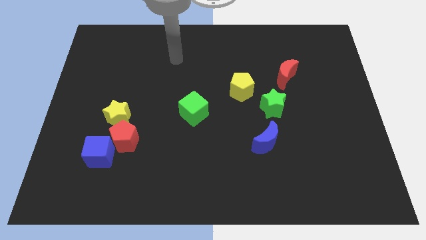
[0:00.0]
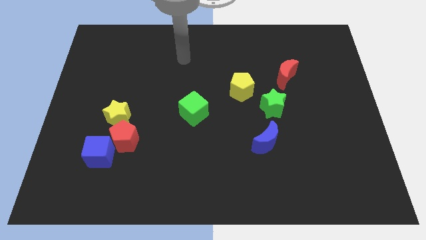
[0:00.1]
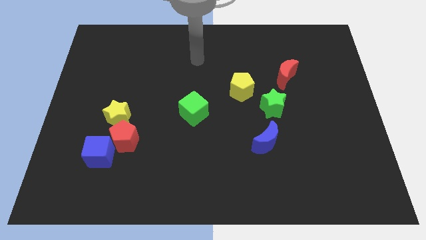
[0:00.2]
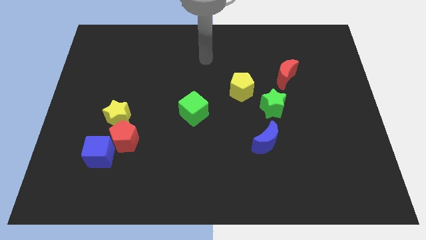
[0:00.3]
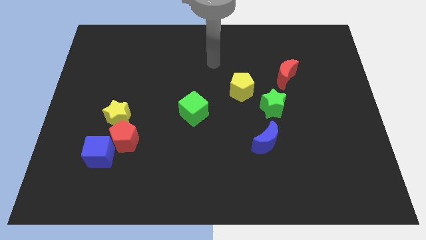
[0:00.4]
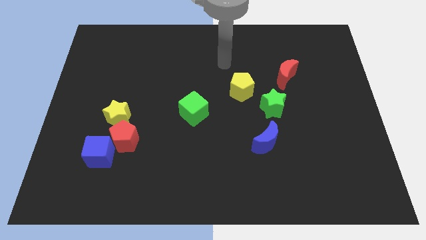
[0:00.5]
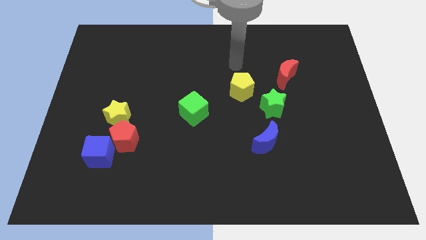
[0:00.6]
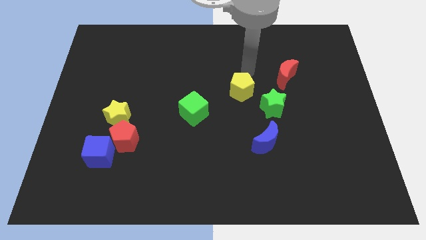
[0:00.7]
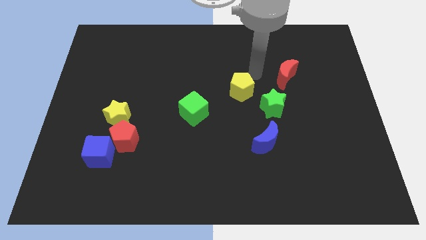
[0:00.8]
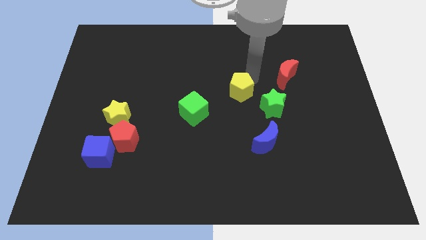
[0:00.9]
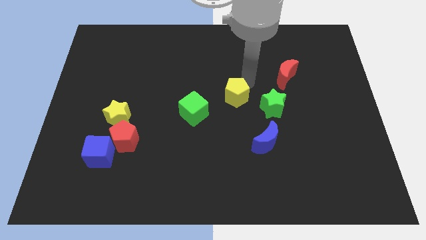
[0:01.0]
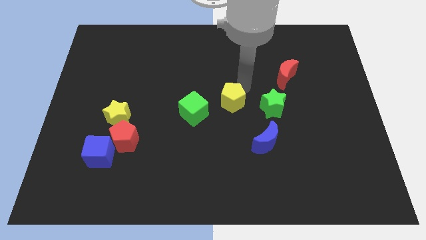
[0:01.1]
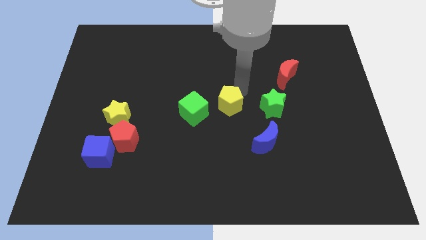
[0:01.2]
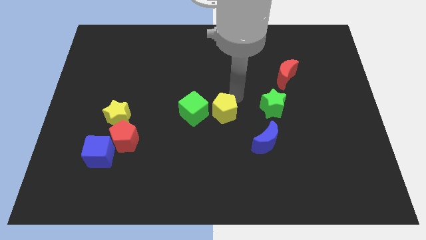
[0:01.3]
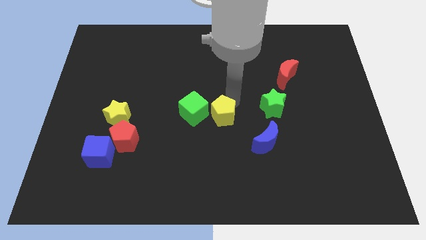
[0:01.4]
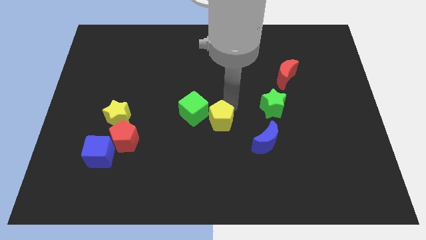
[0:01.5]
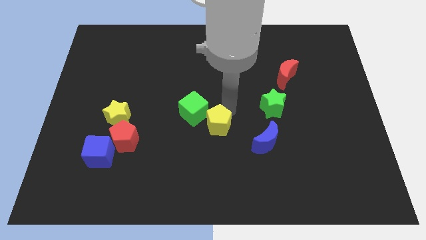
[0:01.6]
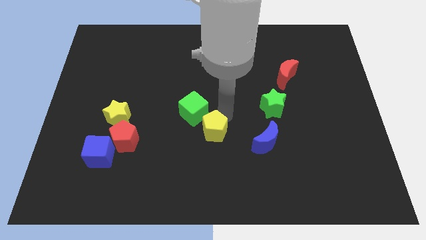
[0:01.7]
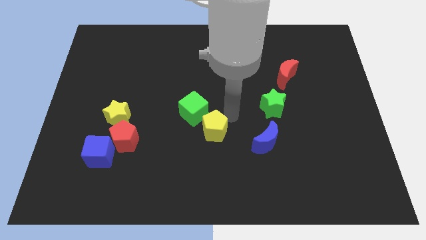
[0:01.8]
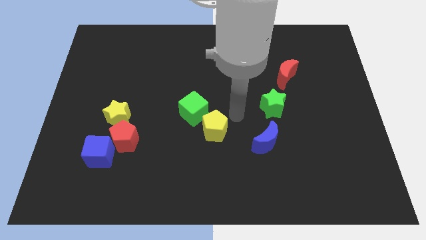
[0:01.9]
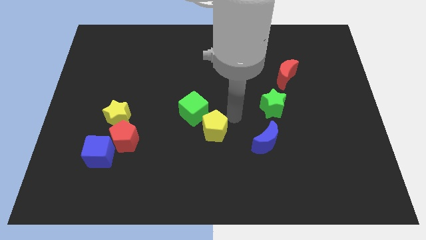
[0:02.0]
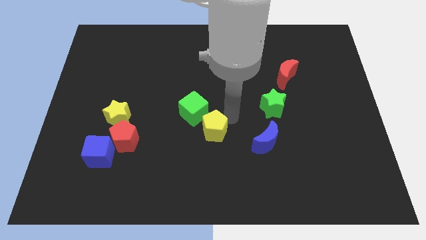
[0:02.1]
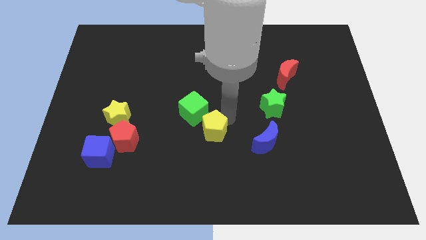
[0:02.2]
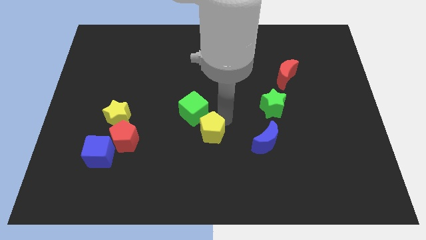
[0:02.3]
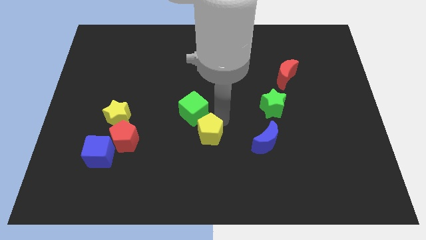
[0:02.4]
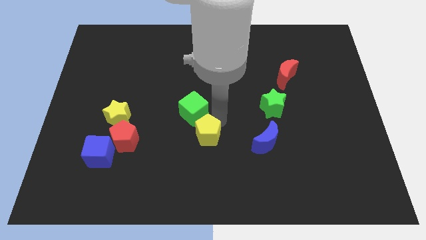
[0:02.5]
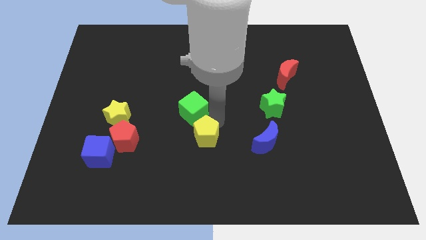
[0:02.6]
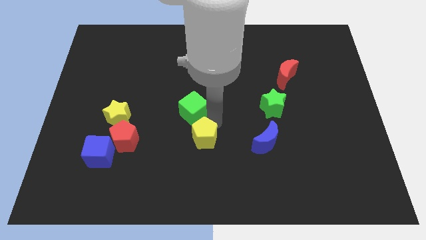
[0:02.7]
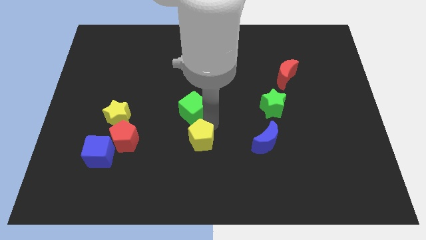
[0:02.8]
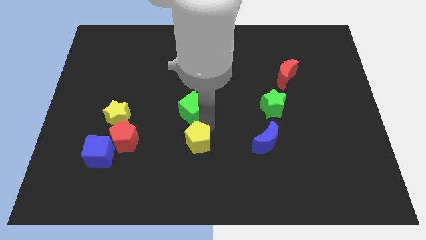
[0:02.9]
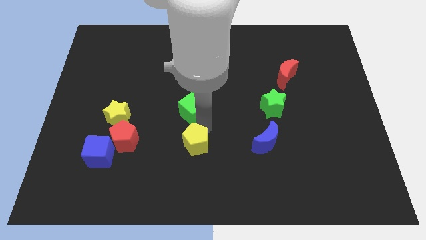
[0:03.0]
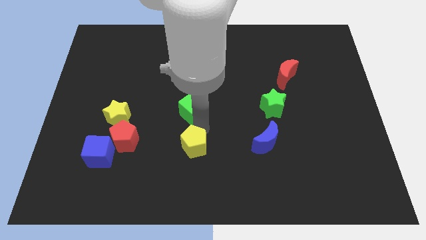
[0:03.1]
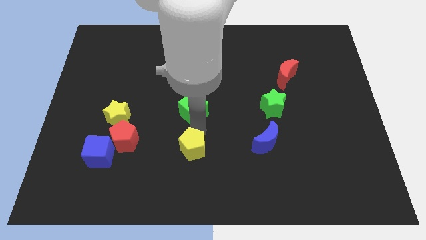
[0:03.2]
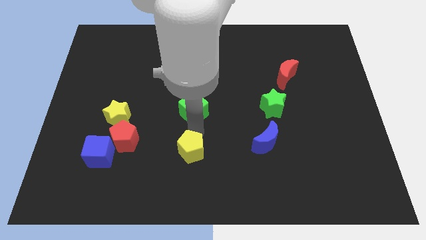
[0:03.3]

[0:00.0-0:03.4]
slide the yellow pentagon downwards and left diagonally

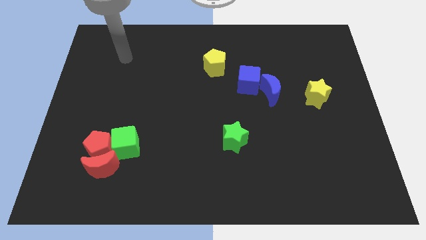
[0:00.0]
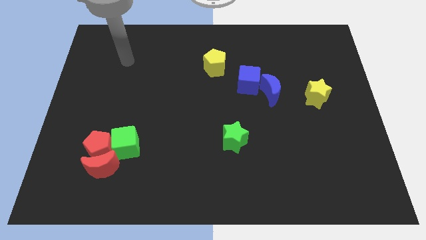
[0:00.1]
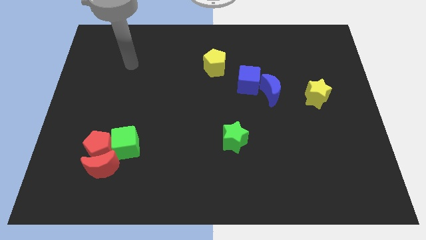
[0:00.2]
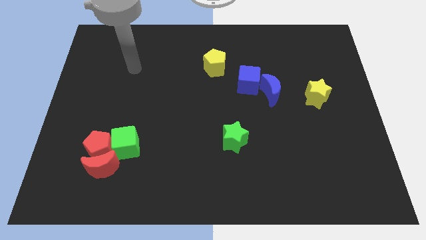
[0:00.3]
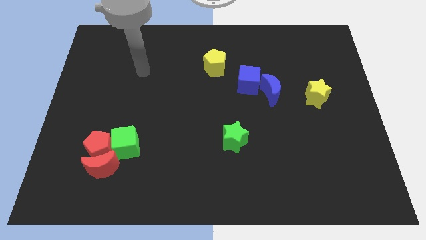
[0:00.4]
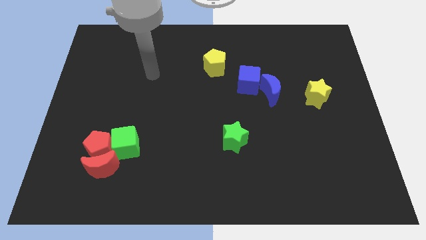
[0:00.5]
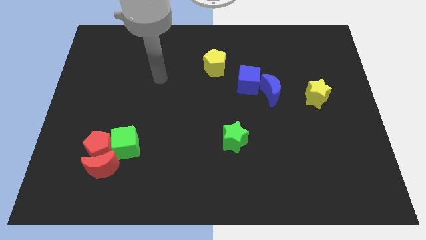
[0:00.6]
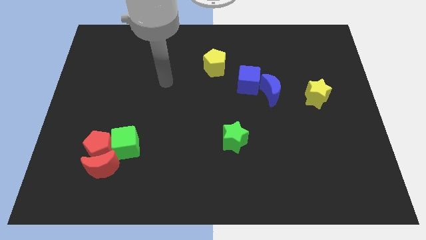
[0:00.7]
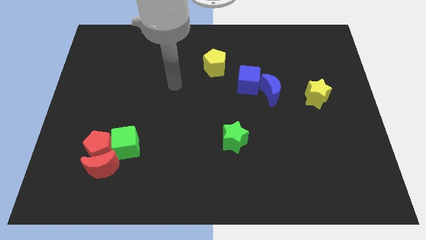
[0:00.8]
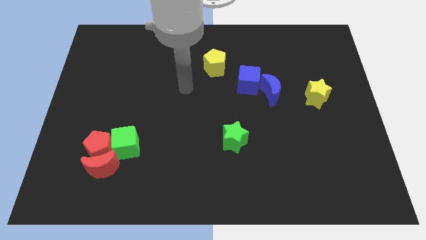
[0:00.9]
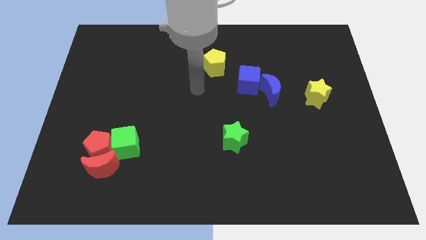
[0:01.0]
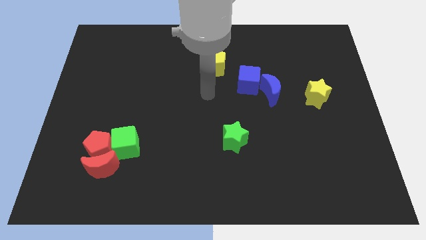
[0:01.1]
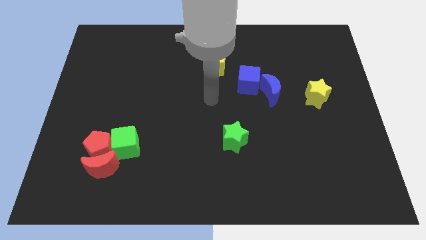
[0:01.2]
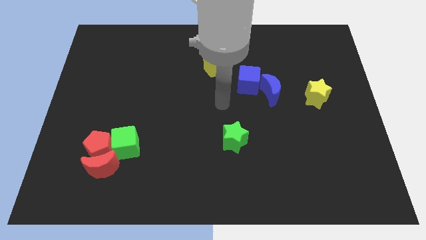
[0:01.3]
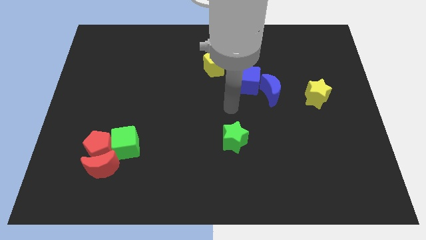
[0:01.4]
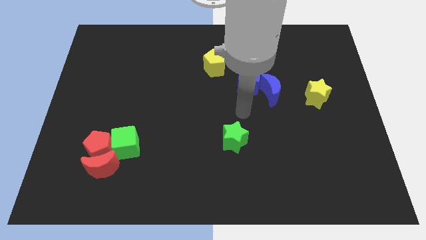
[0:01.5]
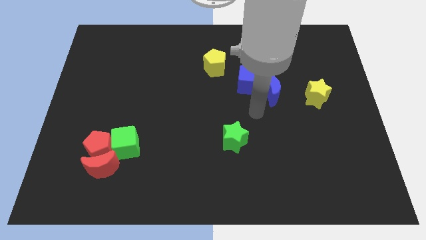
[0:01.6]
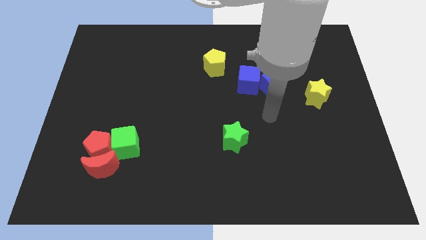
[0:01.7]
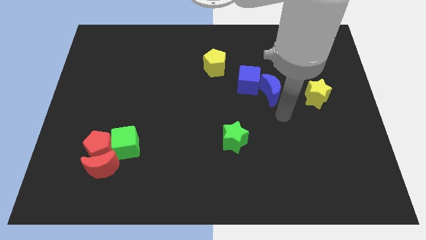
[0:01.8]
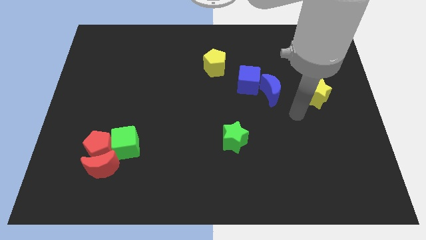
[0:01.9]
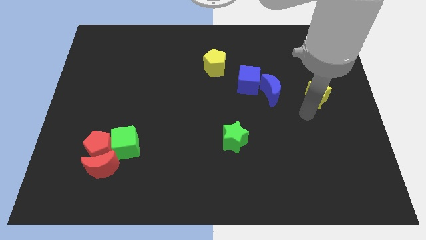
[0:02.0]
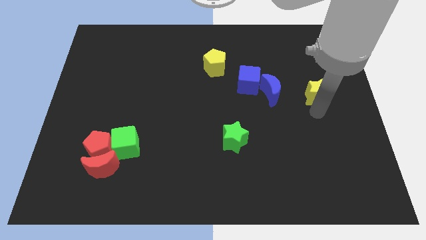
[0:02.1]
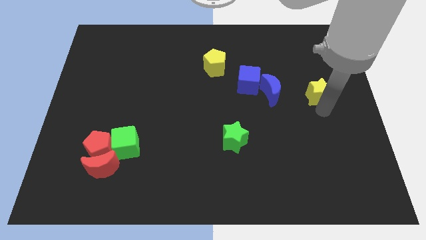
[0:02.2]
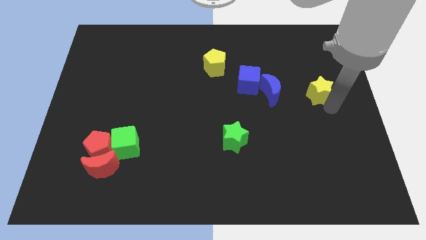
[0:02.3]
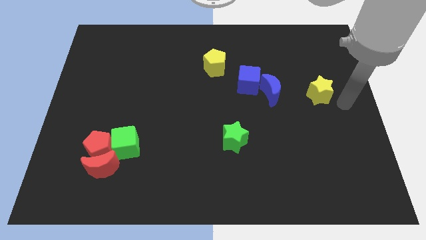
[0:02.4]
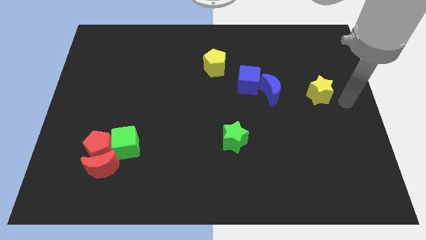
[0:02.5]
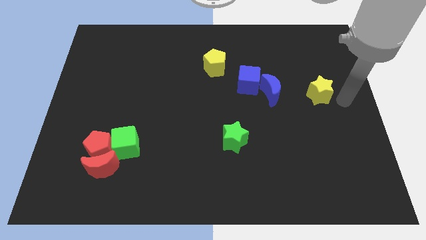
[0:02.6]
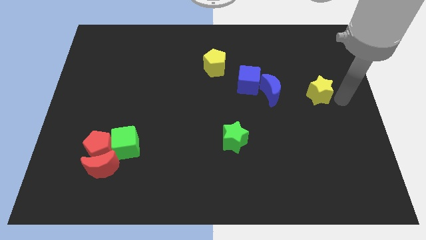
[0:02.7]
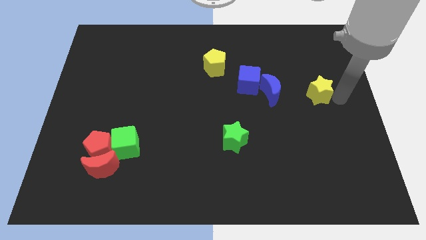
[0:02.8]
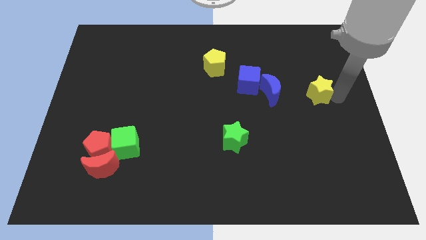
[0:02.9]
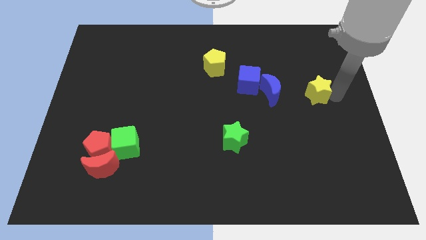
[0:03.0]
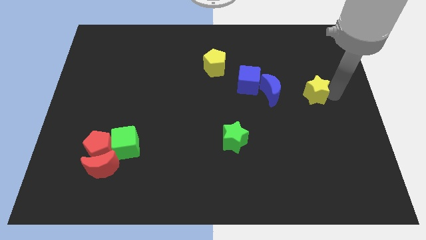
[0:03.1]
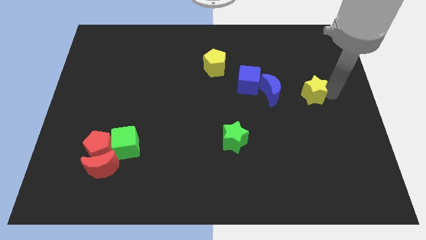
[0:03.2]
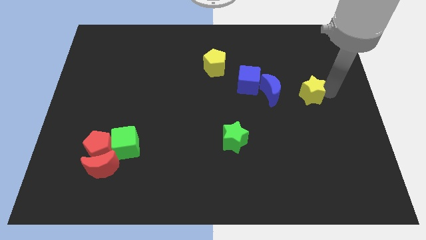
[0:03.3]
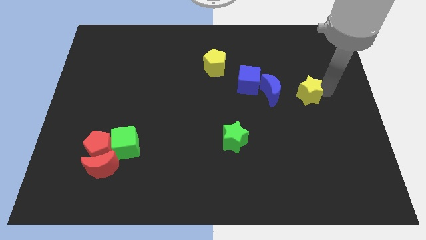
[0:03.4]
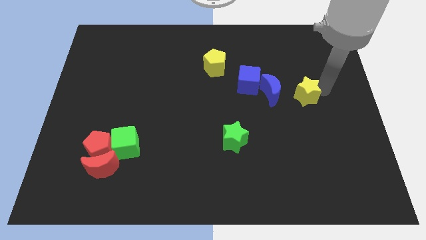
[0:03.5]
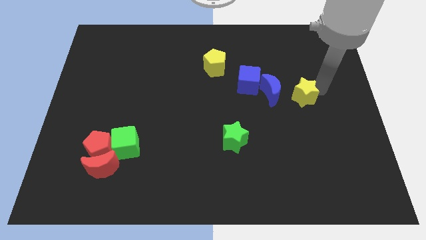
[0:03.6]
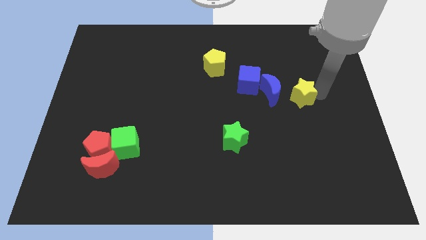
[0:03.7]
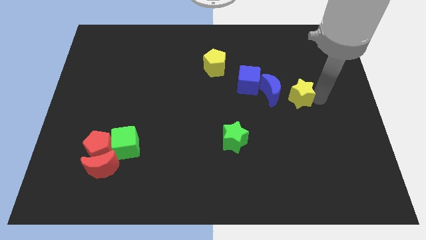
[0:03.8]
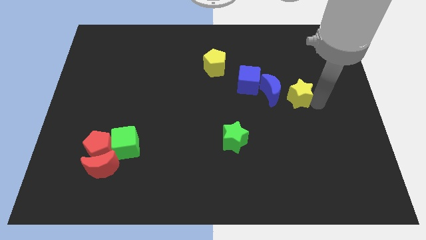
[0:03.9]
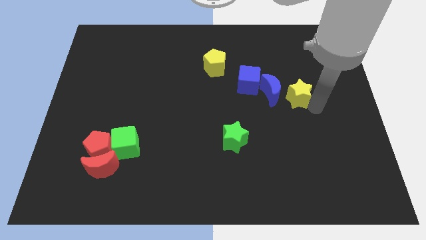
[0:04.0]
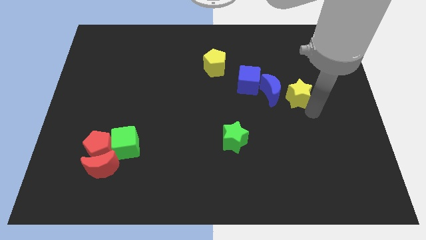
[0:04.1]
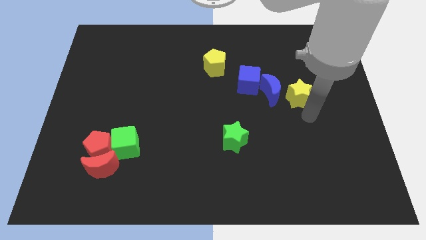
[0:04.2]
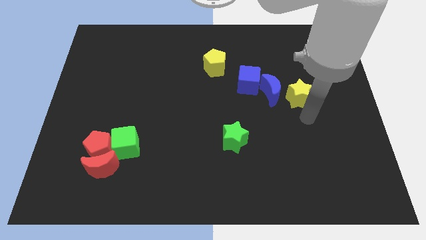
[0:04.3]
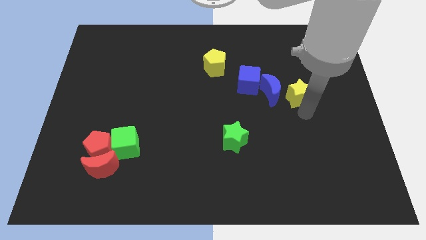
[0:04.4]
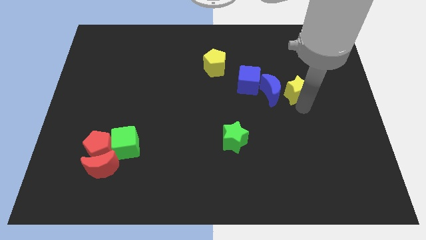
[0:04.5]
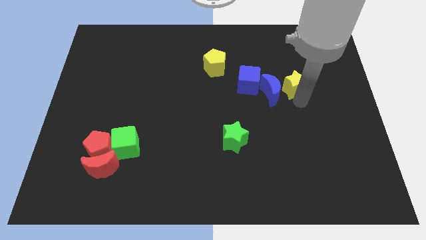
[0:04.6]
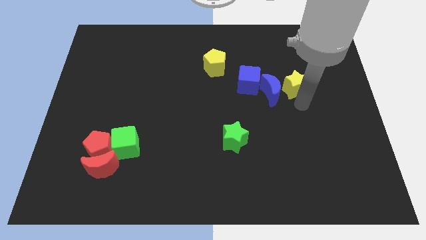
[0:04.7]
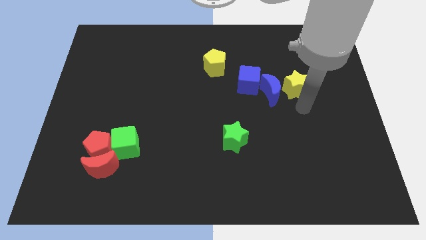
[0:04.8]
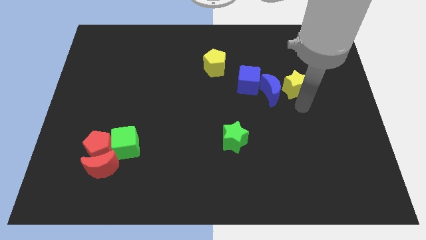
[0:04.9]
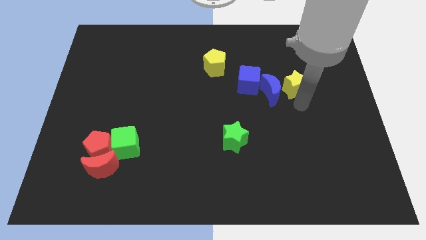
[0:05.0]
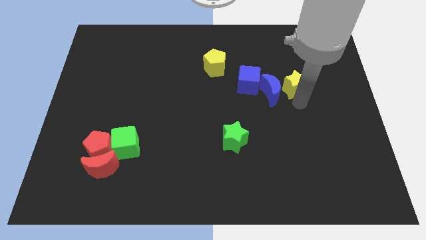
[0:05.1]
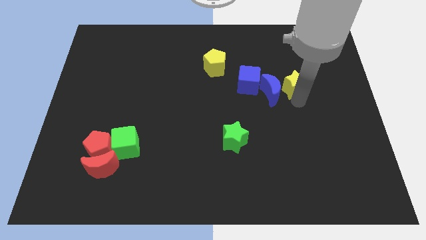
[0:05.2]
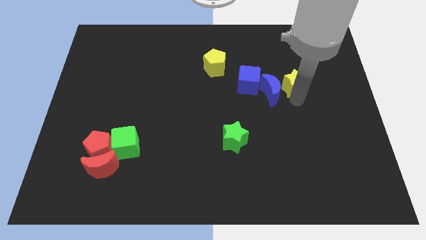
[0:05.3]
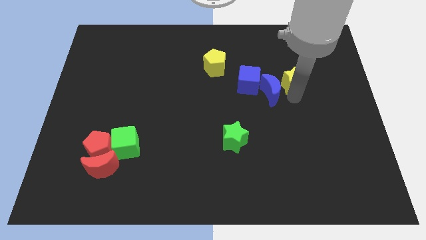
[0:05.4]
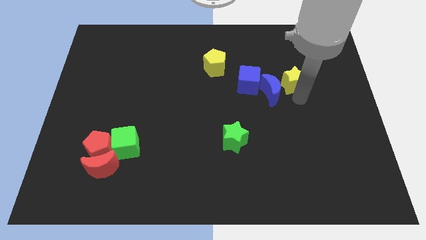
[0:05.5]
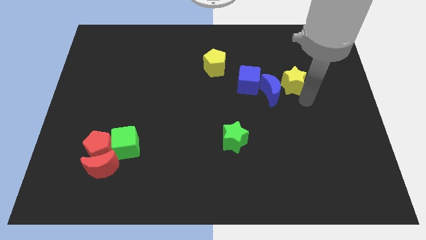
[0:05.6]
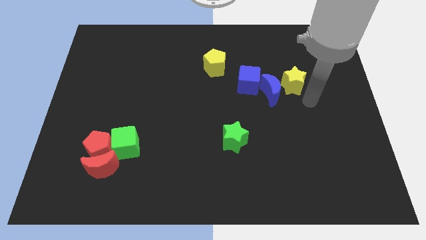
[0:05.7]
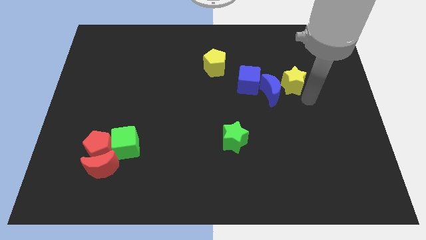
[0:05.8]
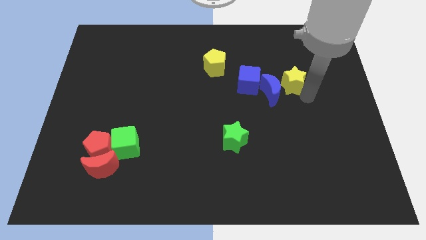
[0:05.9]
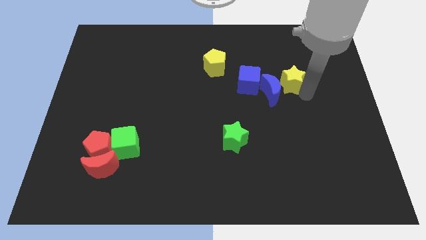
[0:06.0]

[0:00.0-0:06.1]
slightly move the yellow star diagonally up and to the left
